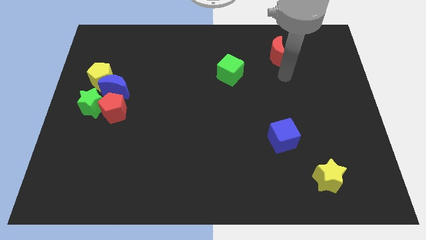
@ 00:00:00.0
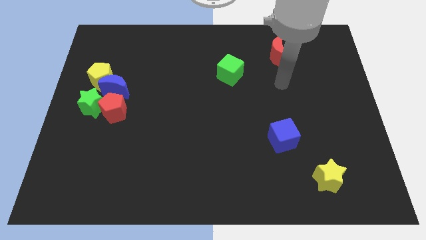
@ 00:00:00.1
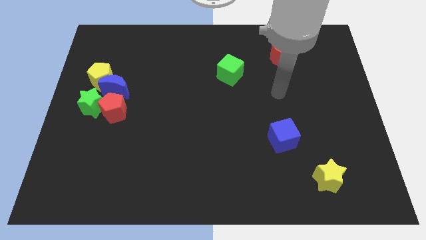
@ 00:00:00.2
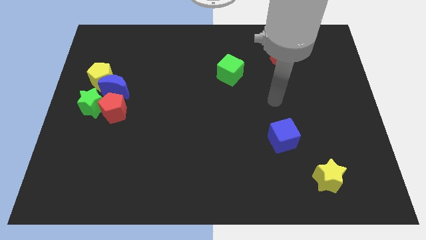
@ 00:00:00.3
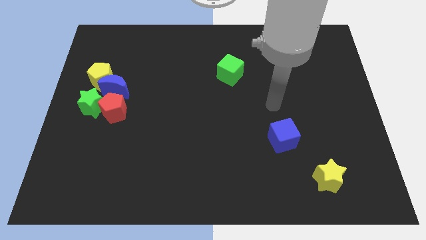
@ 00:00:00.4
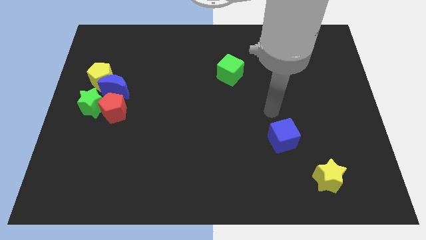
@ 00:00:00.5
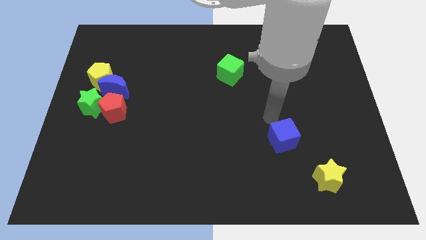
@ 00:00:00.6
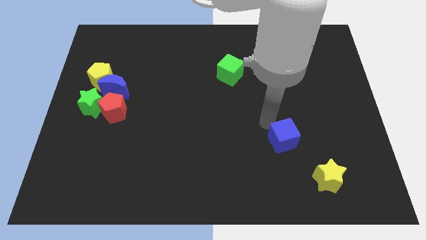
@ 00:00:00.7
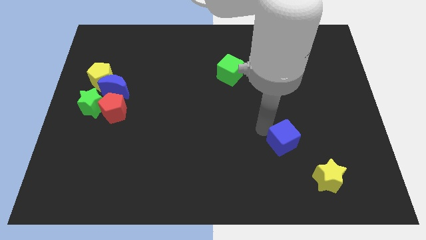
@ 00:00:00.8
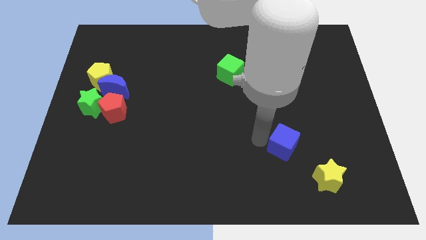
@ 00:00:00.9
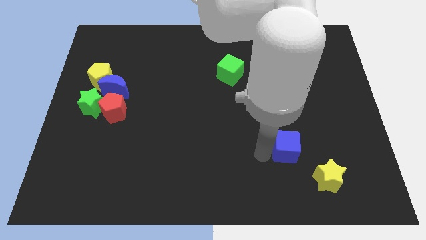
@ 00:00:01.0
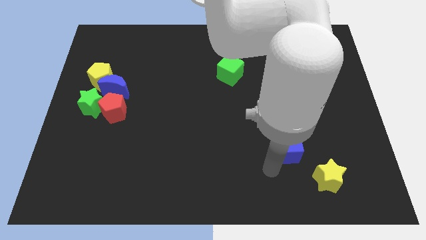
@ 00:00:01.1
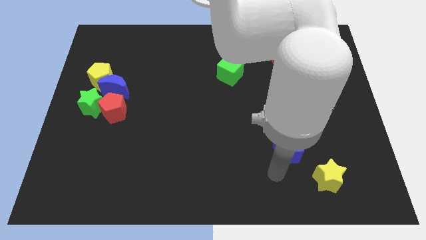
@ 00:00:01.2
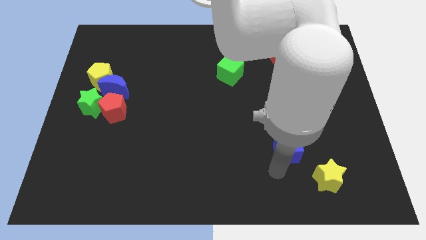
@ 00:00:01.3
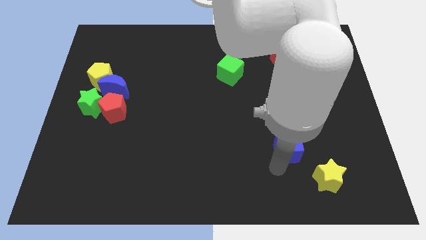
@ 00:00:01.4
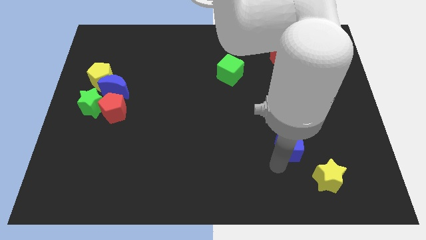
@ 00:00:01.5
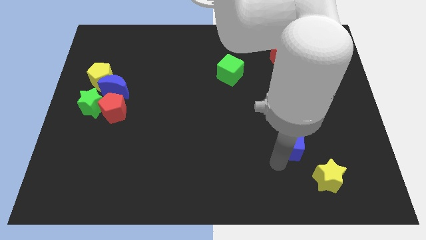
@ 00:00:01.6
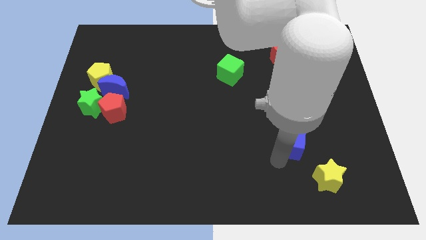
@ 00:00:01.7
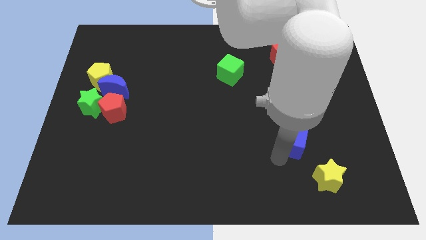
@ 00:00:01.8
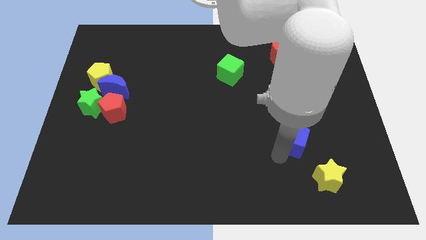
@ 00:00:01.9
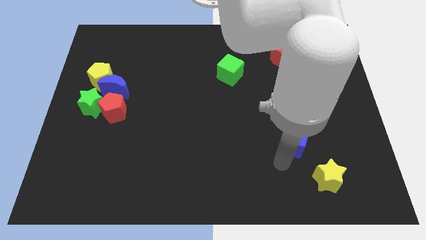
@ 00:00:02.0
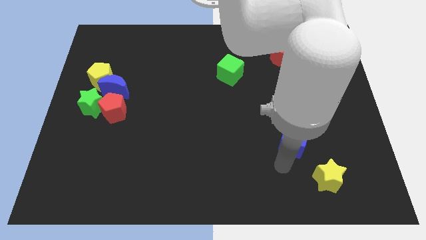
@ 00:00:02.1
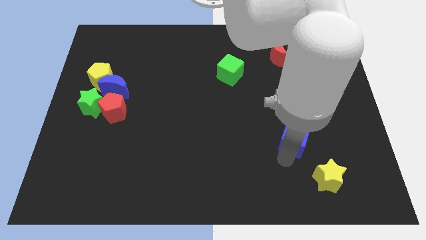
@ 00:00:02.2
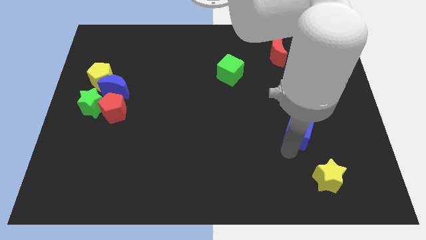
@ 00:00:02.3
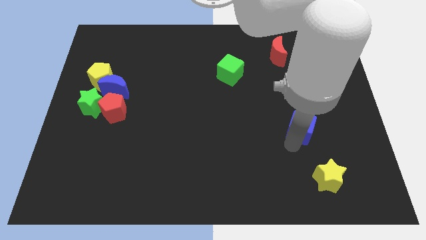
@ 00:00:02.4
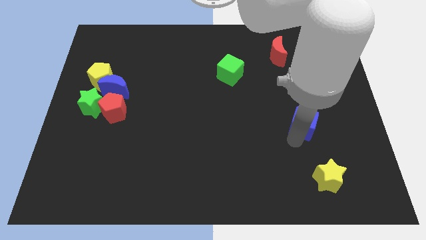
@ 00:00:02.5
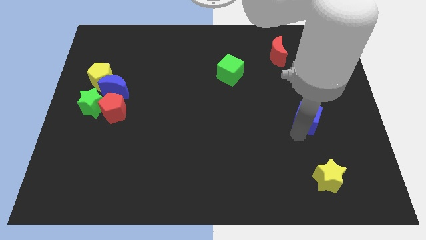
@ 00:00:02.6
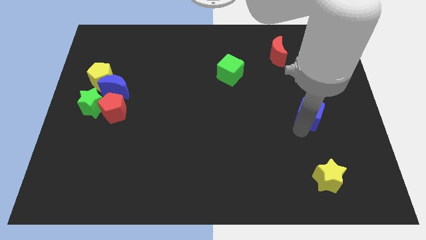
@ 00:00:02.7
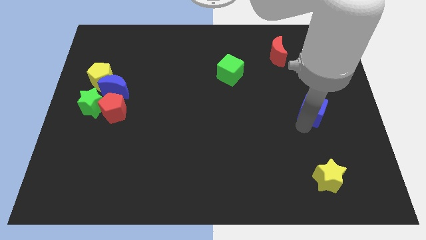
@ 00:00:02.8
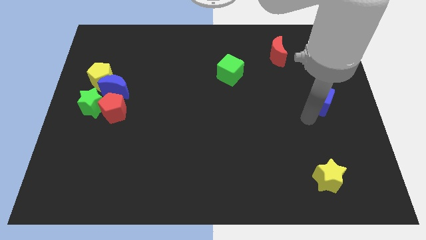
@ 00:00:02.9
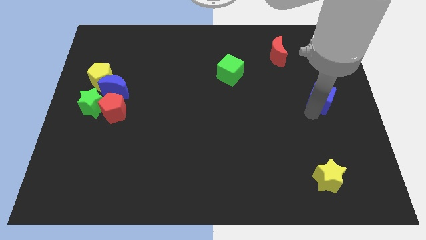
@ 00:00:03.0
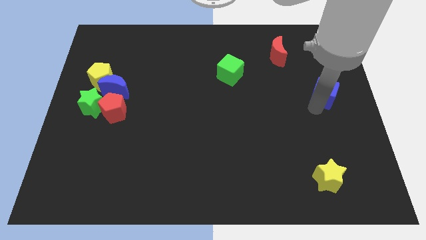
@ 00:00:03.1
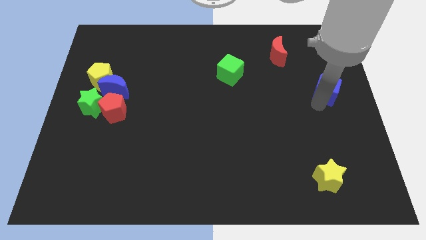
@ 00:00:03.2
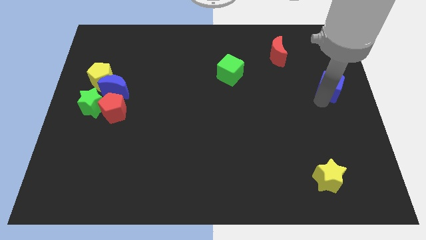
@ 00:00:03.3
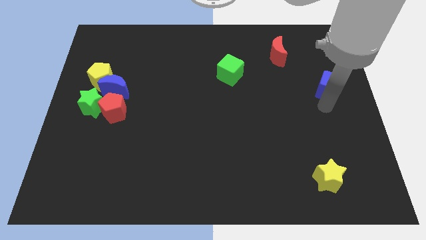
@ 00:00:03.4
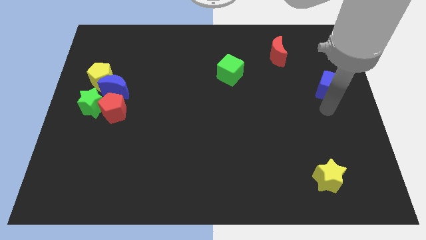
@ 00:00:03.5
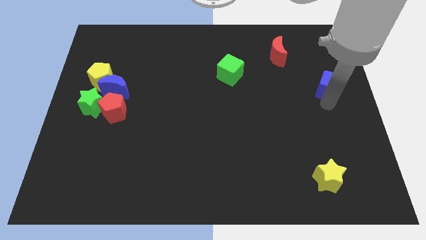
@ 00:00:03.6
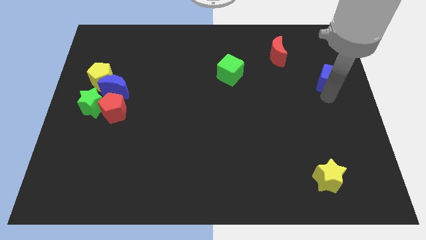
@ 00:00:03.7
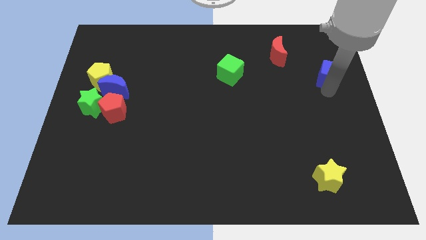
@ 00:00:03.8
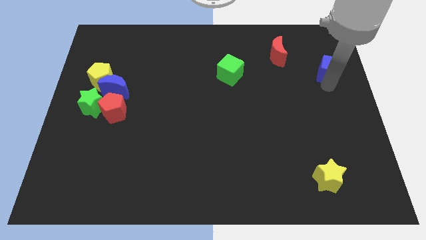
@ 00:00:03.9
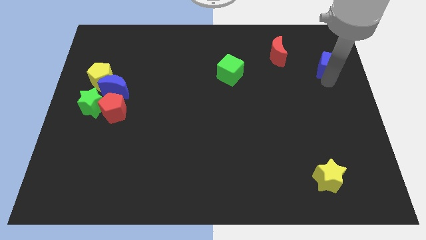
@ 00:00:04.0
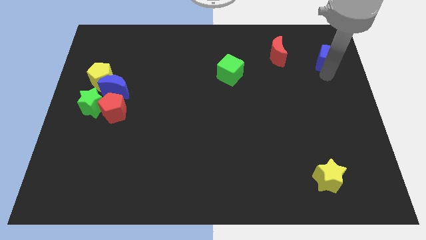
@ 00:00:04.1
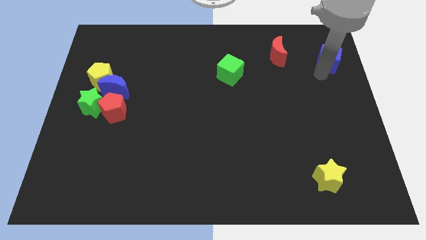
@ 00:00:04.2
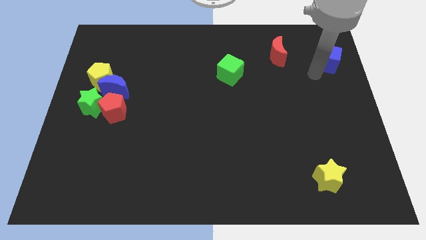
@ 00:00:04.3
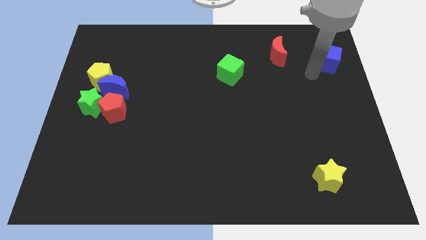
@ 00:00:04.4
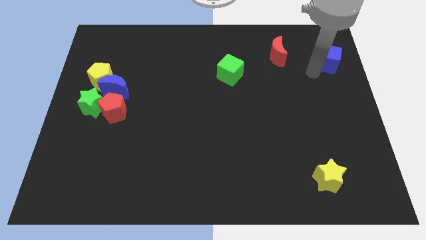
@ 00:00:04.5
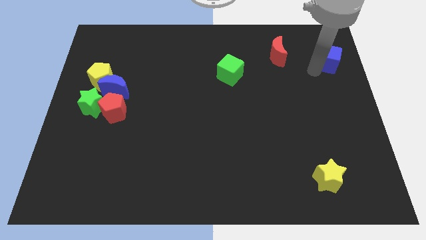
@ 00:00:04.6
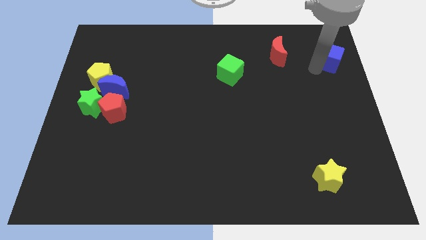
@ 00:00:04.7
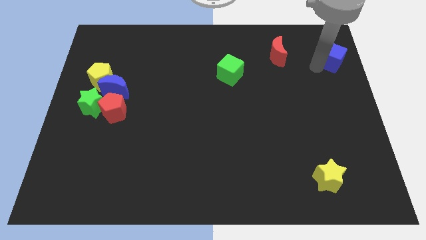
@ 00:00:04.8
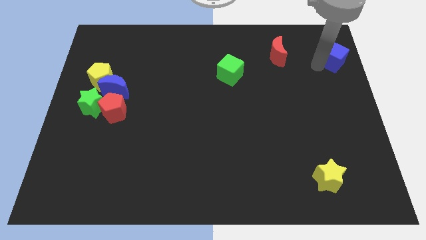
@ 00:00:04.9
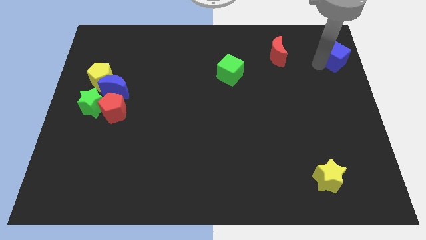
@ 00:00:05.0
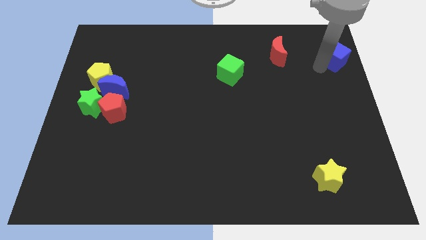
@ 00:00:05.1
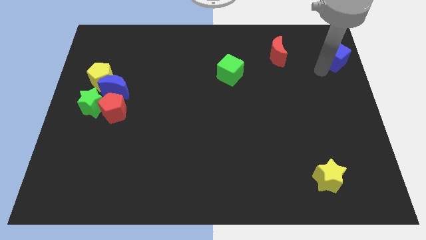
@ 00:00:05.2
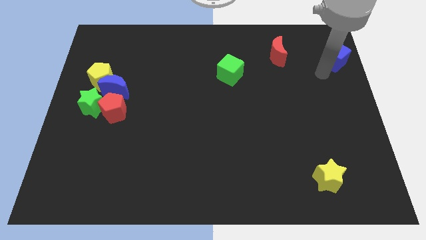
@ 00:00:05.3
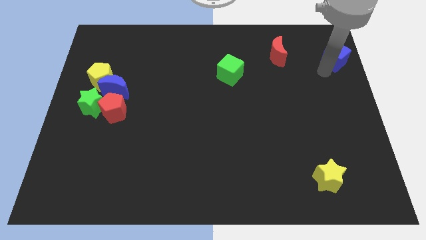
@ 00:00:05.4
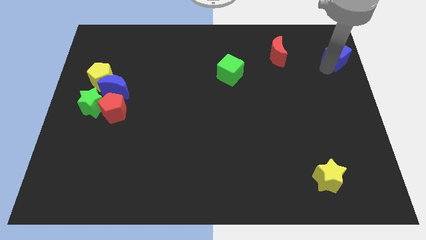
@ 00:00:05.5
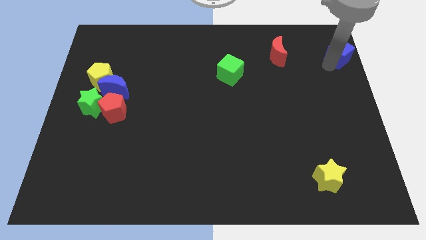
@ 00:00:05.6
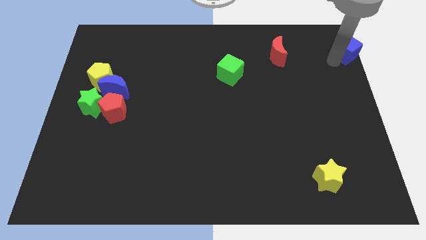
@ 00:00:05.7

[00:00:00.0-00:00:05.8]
slide the blue cube to the top right
